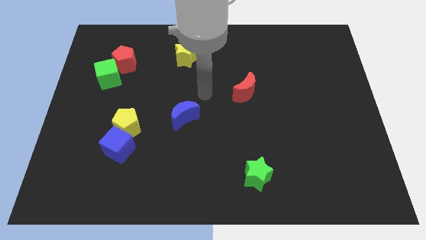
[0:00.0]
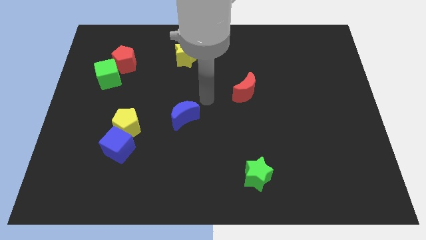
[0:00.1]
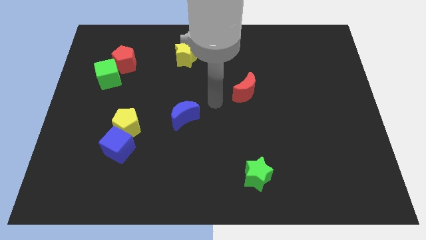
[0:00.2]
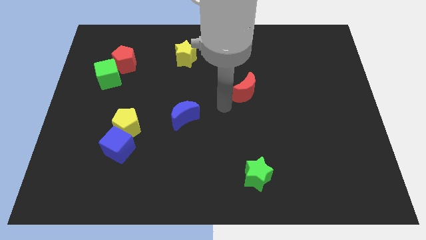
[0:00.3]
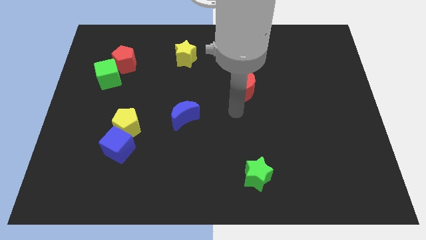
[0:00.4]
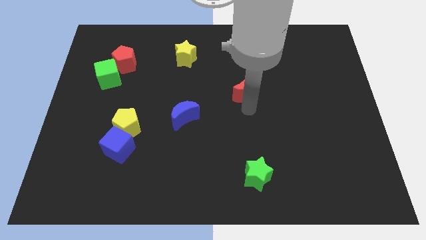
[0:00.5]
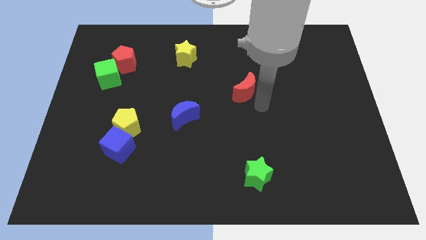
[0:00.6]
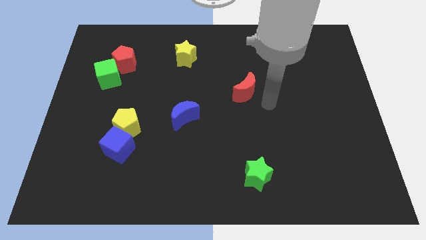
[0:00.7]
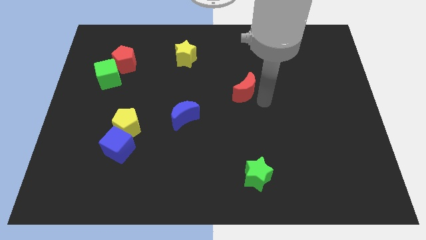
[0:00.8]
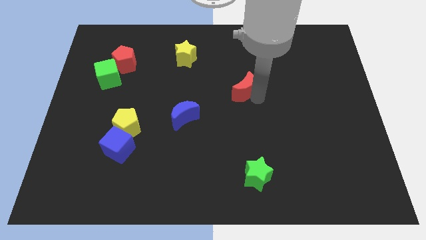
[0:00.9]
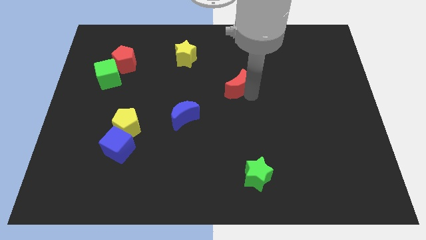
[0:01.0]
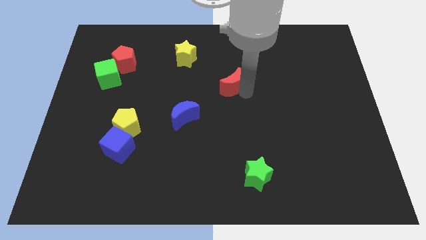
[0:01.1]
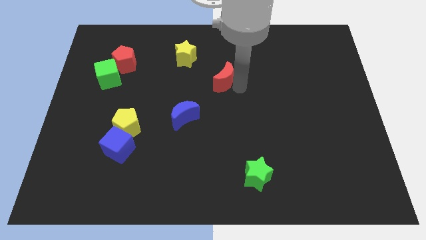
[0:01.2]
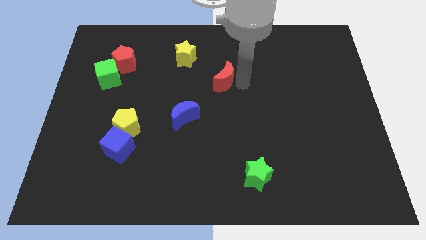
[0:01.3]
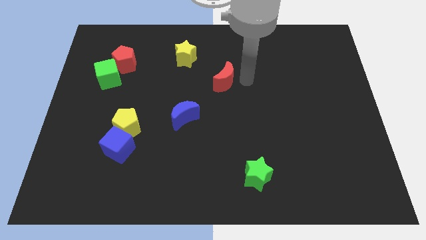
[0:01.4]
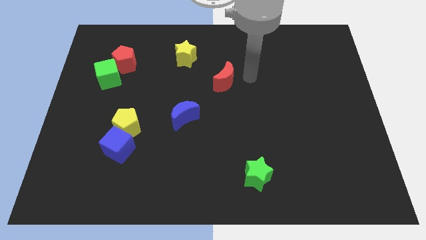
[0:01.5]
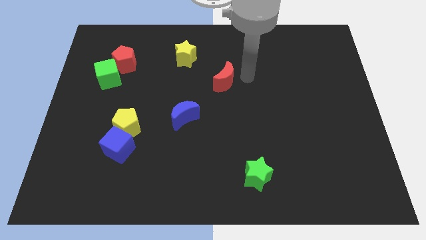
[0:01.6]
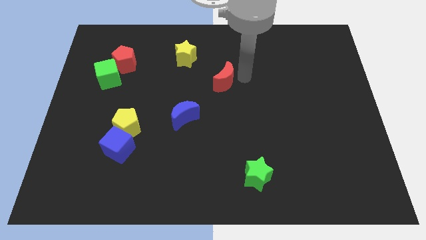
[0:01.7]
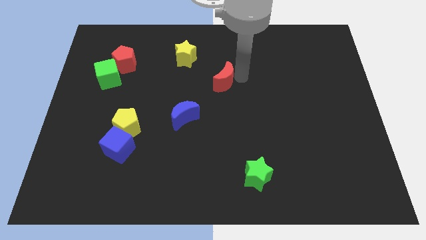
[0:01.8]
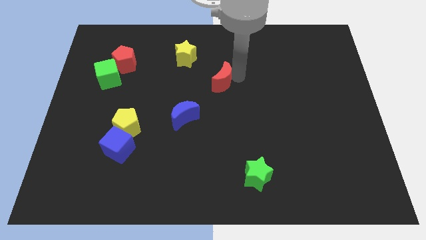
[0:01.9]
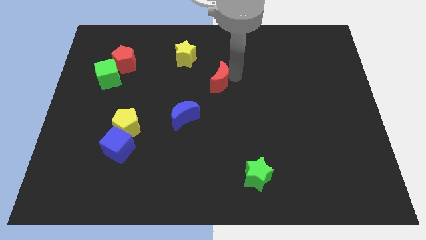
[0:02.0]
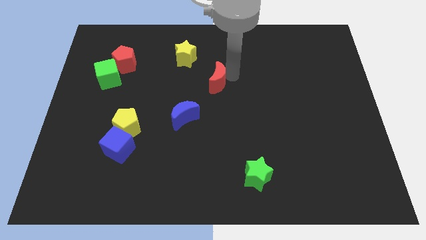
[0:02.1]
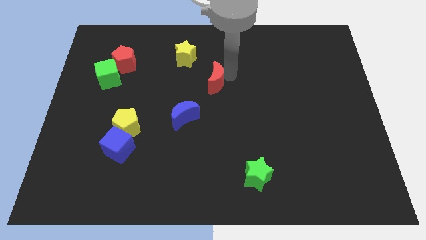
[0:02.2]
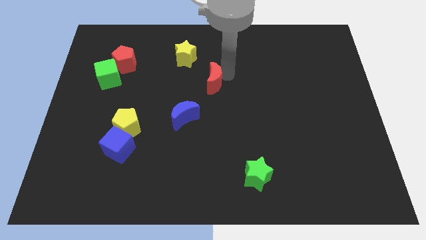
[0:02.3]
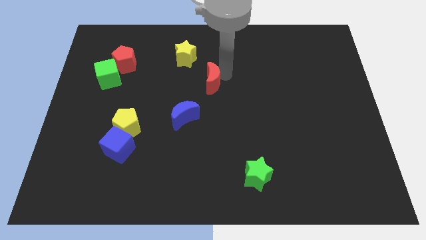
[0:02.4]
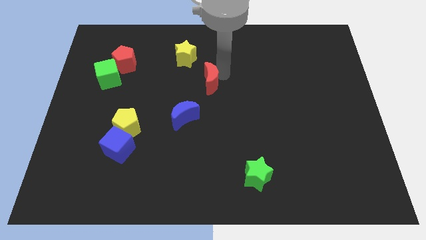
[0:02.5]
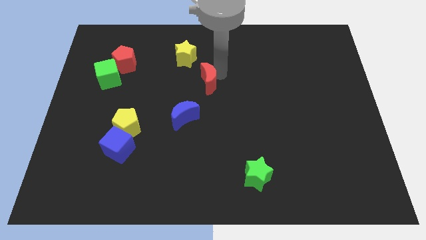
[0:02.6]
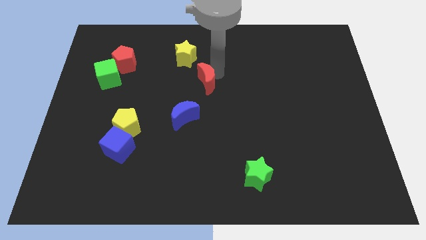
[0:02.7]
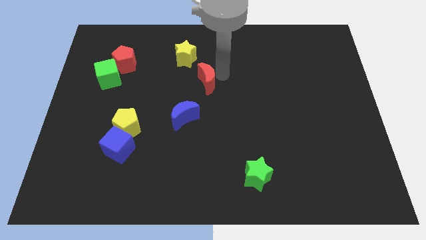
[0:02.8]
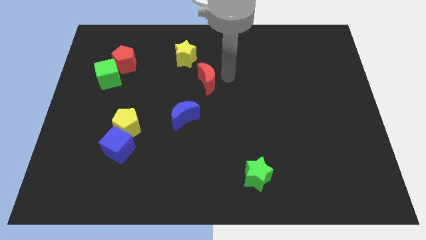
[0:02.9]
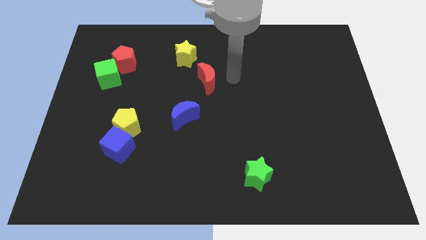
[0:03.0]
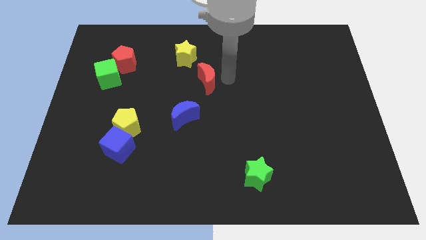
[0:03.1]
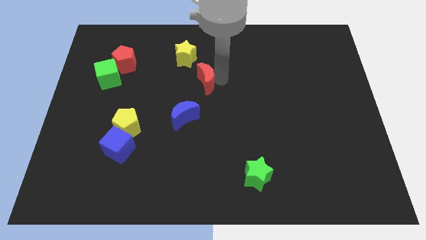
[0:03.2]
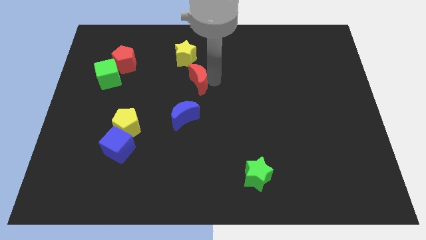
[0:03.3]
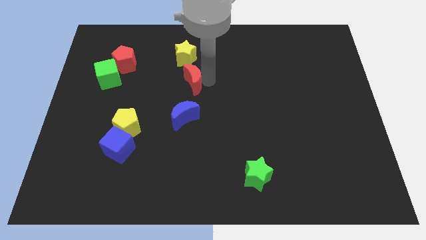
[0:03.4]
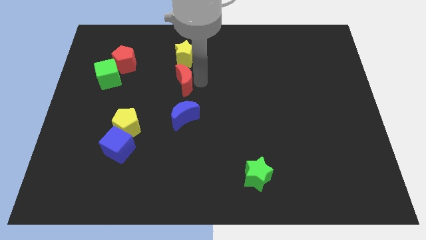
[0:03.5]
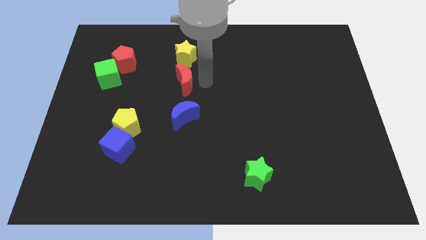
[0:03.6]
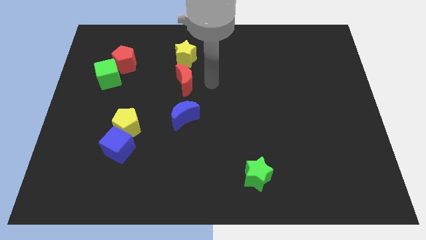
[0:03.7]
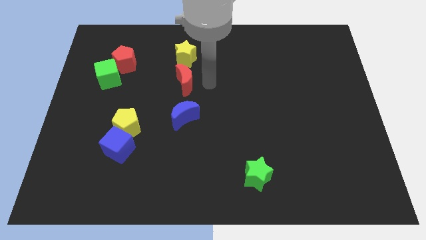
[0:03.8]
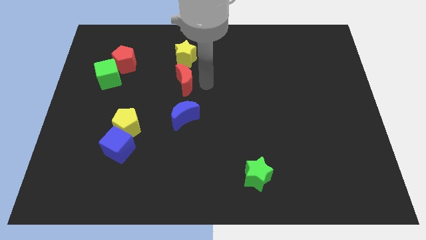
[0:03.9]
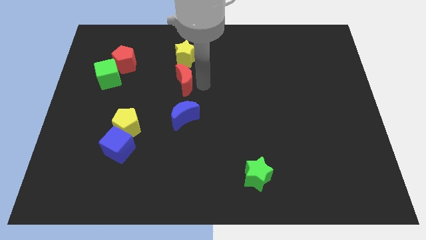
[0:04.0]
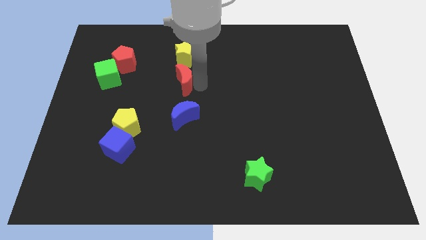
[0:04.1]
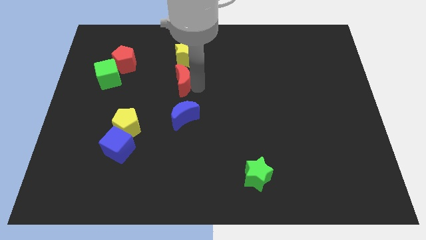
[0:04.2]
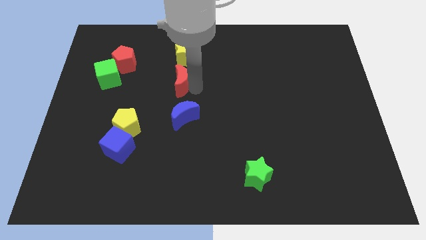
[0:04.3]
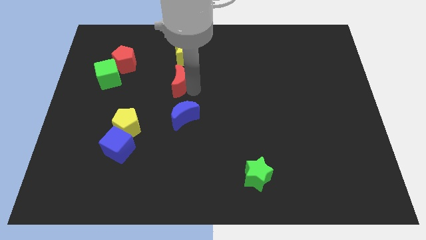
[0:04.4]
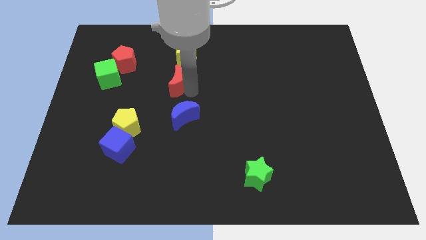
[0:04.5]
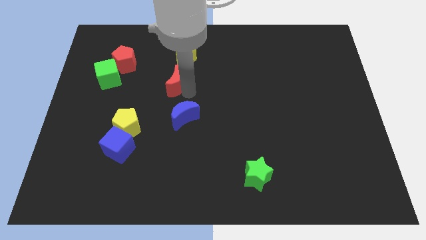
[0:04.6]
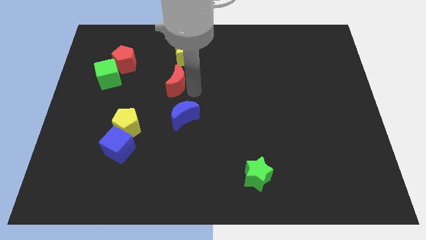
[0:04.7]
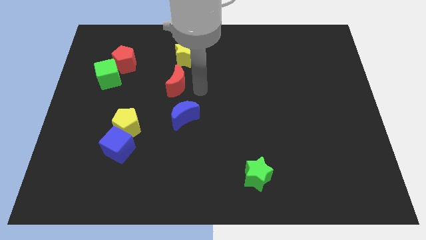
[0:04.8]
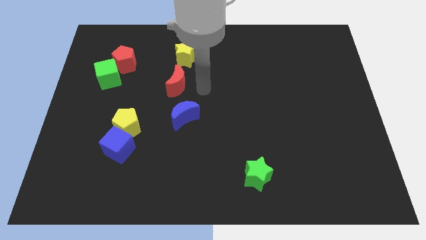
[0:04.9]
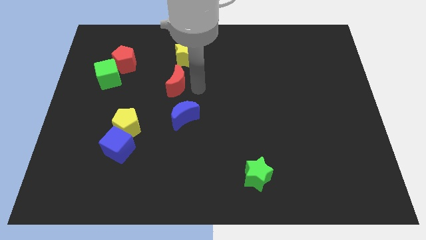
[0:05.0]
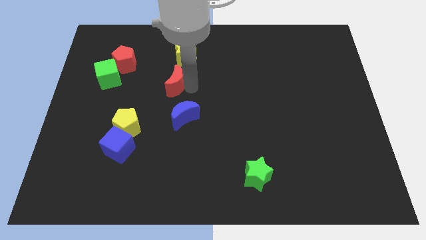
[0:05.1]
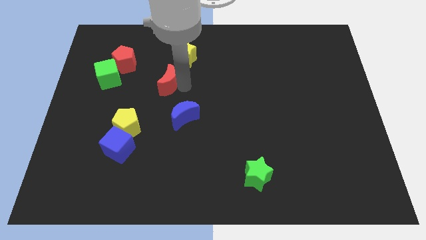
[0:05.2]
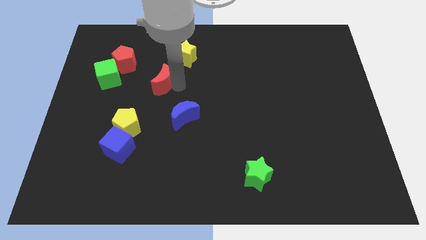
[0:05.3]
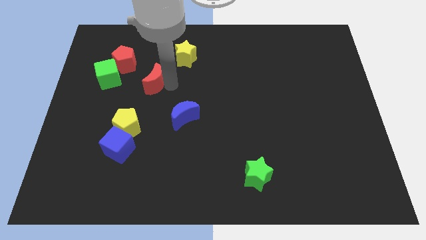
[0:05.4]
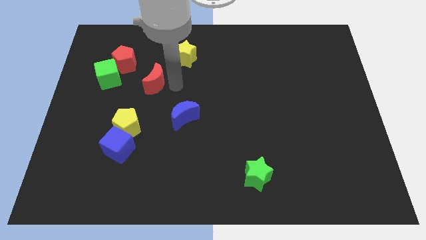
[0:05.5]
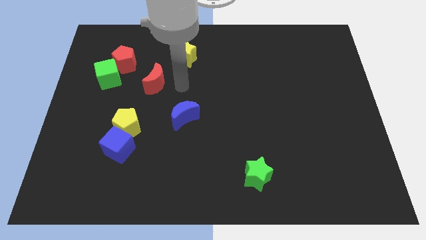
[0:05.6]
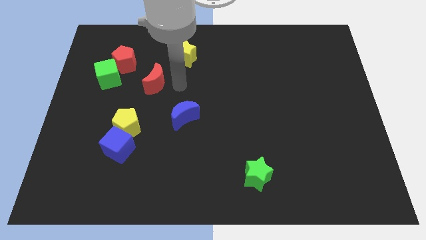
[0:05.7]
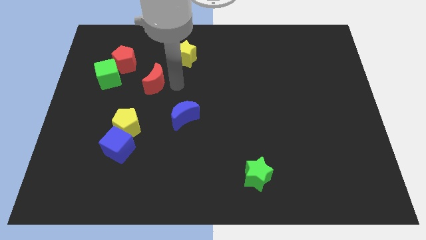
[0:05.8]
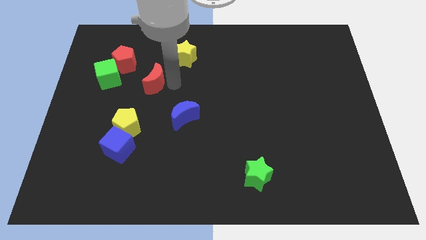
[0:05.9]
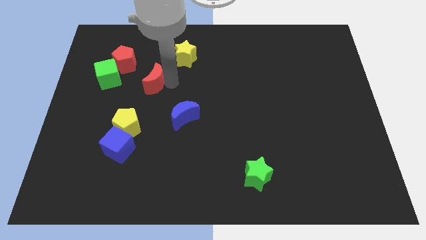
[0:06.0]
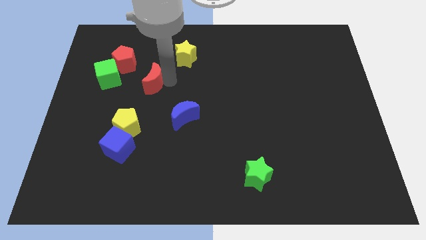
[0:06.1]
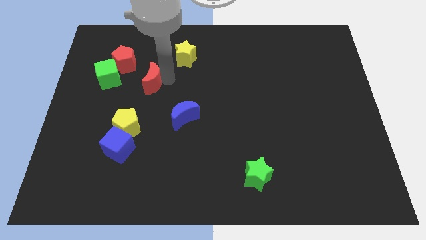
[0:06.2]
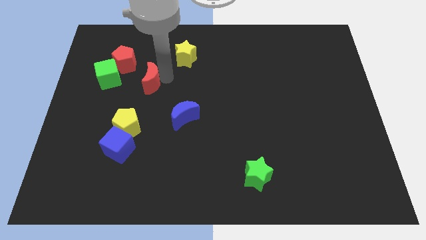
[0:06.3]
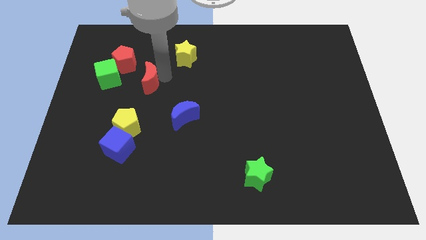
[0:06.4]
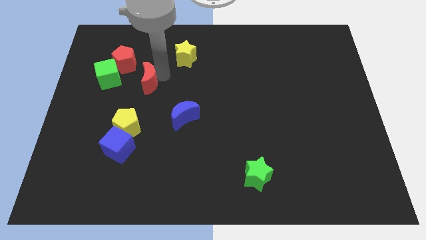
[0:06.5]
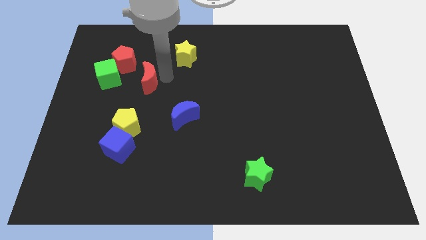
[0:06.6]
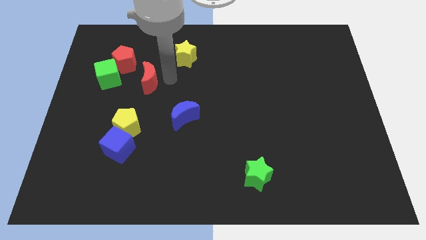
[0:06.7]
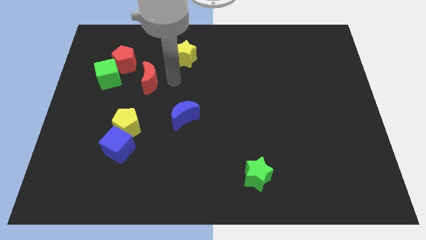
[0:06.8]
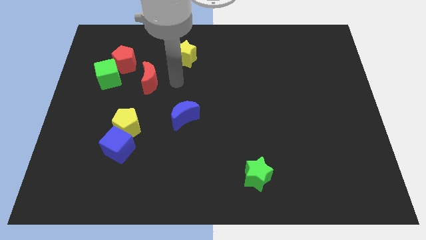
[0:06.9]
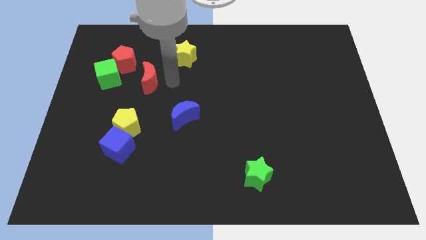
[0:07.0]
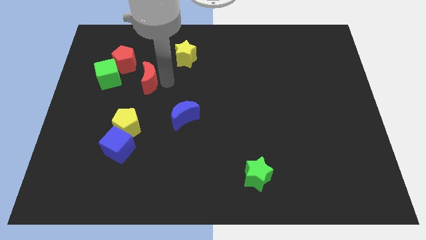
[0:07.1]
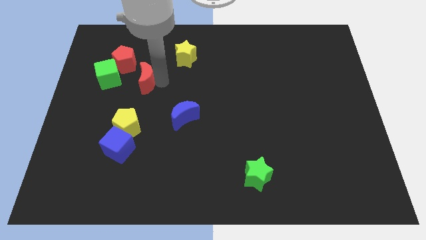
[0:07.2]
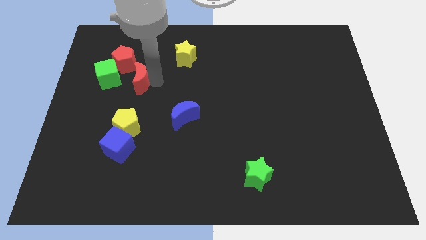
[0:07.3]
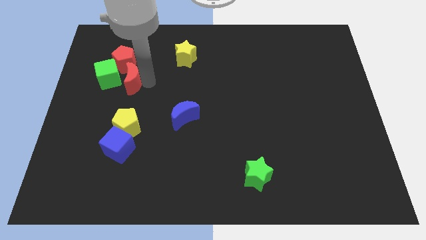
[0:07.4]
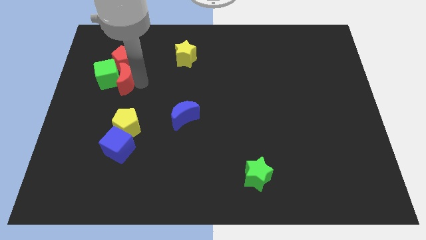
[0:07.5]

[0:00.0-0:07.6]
slide the red moon to the green cube
